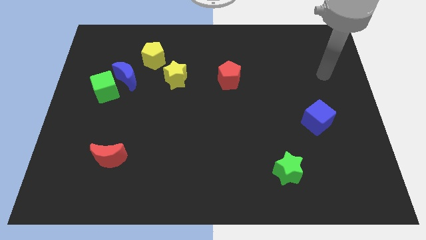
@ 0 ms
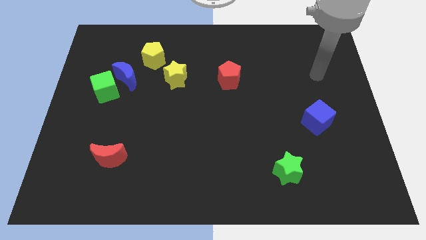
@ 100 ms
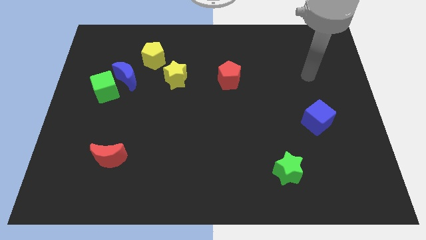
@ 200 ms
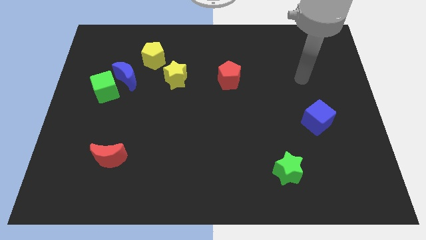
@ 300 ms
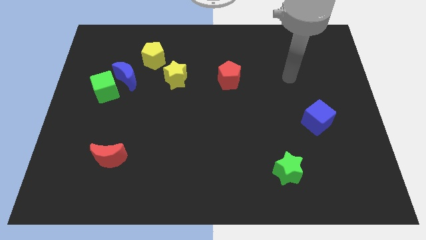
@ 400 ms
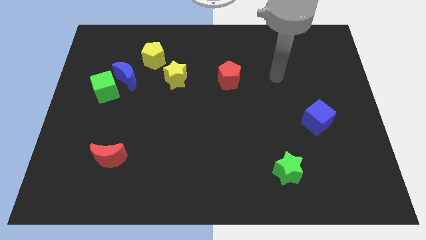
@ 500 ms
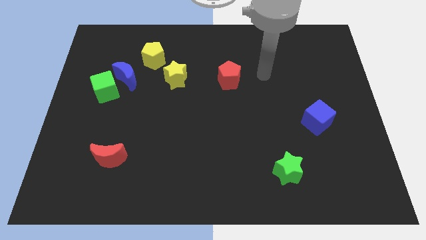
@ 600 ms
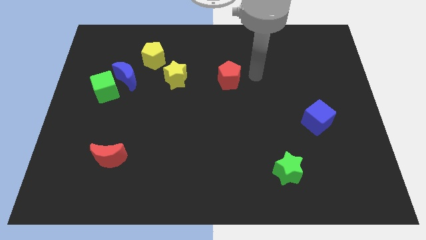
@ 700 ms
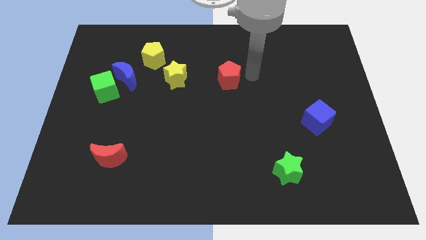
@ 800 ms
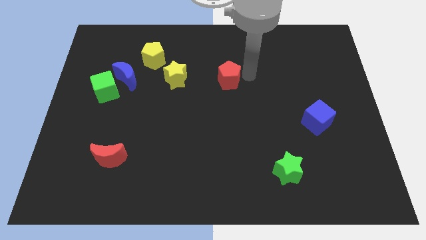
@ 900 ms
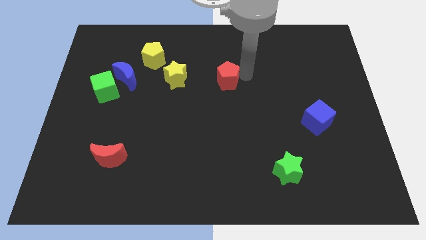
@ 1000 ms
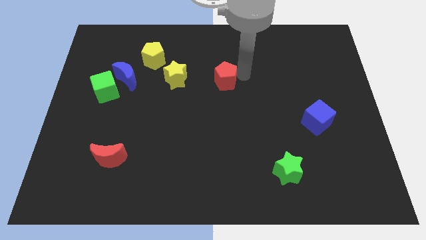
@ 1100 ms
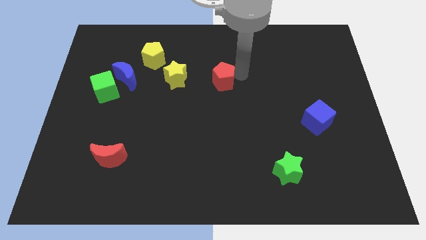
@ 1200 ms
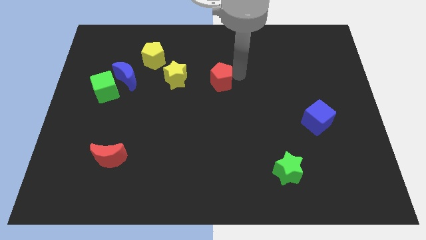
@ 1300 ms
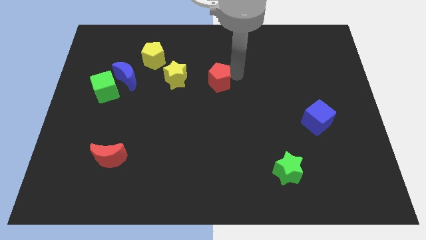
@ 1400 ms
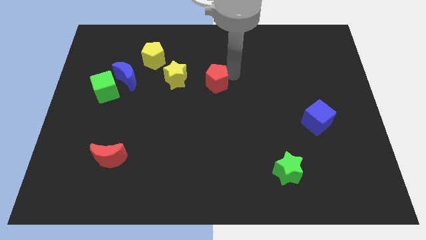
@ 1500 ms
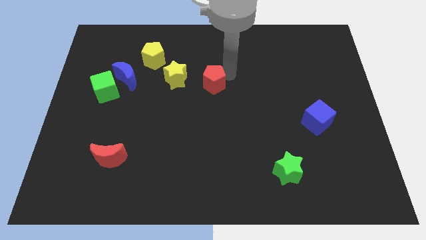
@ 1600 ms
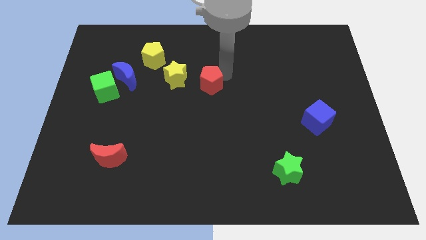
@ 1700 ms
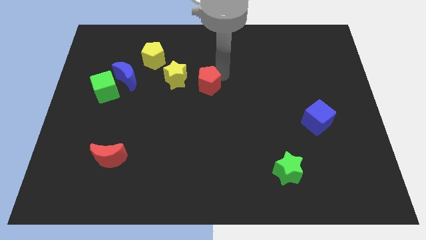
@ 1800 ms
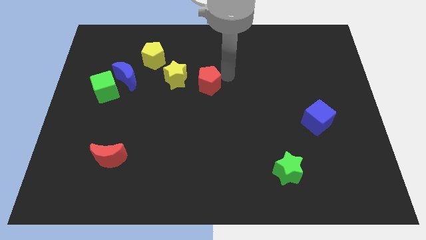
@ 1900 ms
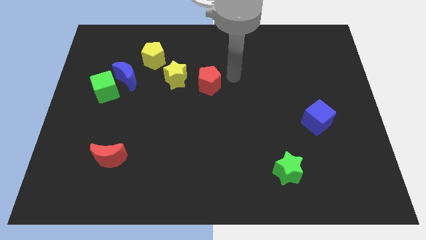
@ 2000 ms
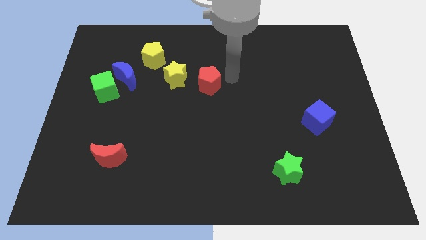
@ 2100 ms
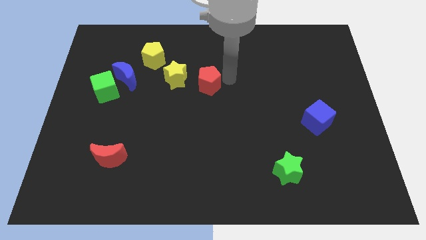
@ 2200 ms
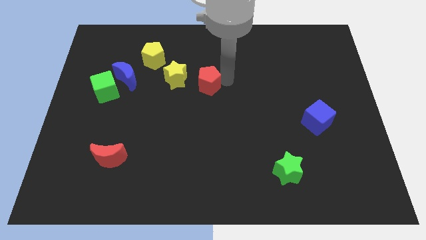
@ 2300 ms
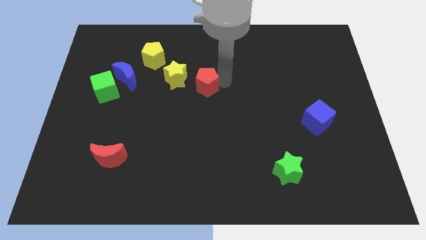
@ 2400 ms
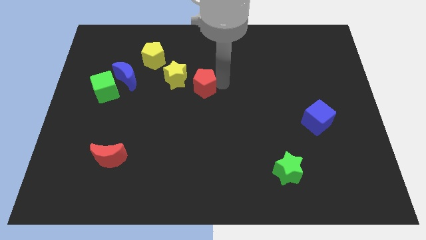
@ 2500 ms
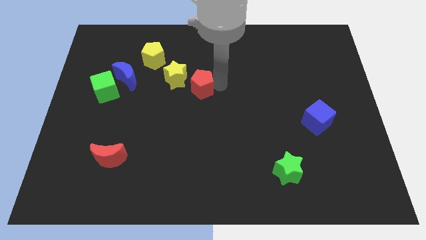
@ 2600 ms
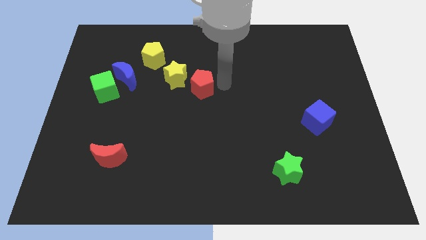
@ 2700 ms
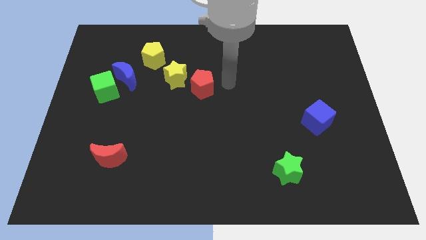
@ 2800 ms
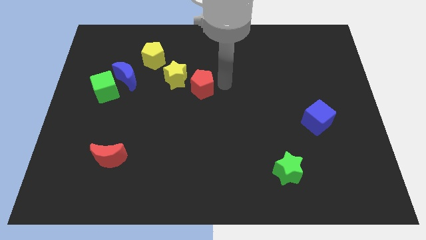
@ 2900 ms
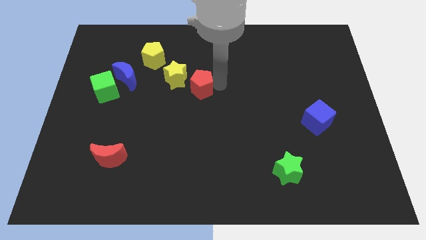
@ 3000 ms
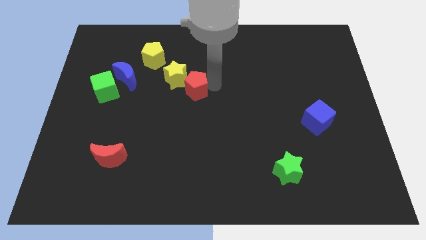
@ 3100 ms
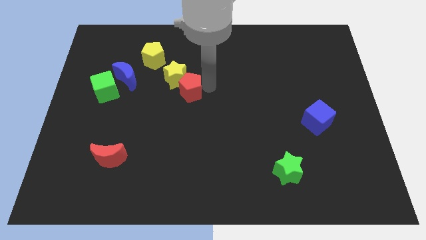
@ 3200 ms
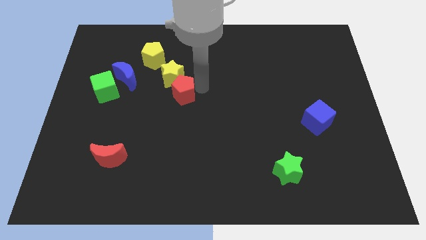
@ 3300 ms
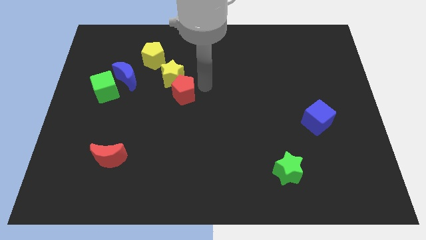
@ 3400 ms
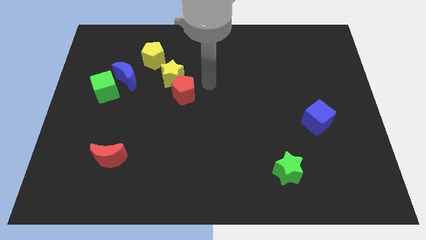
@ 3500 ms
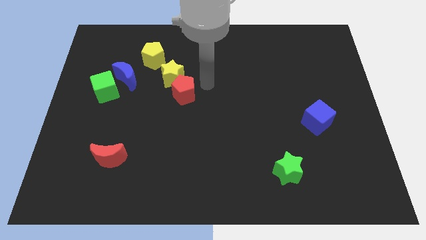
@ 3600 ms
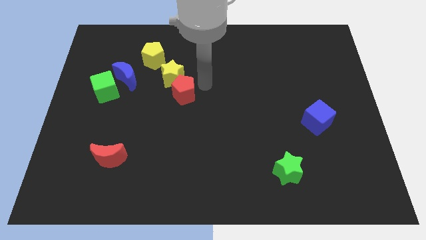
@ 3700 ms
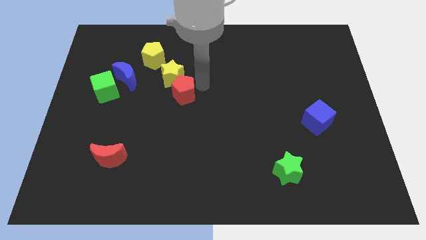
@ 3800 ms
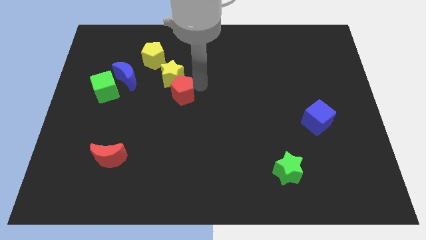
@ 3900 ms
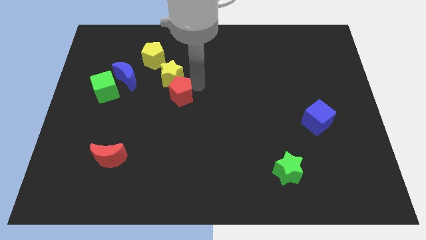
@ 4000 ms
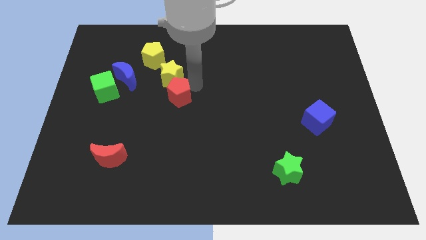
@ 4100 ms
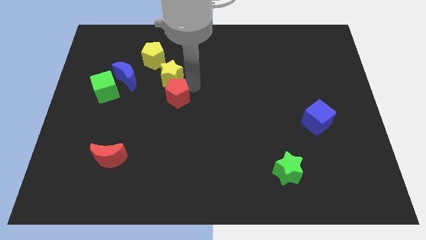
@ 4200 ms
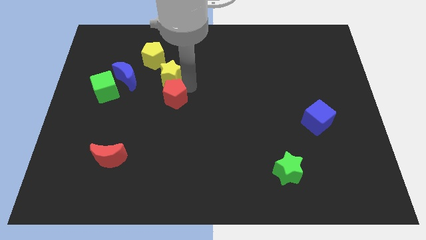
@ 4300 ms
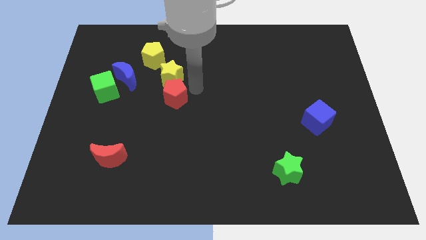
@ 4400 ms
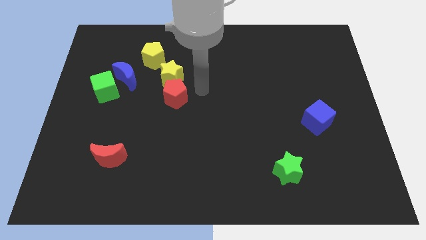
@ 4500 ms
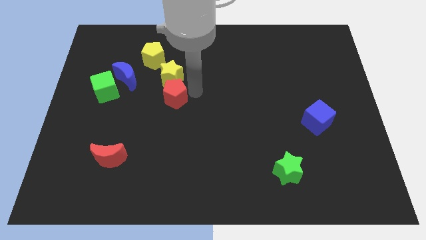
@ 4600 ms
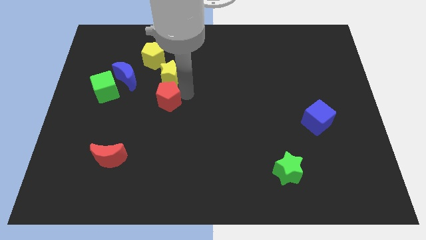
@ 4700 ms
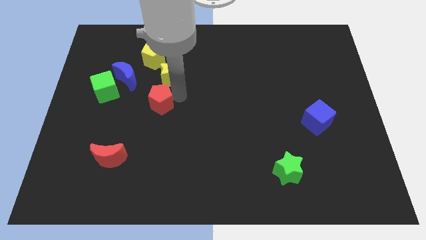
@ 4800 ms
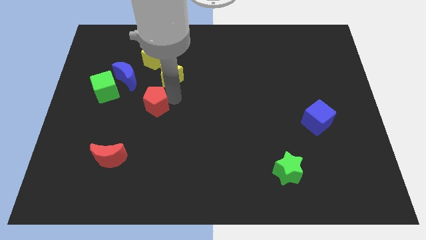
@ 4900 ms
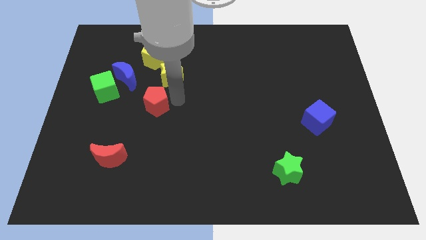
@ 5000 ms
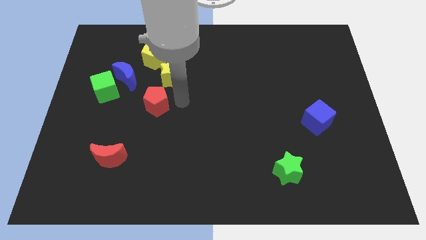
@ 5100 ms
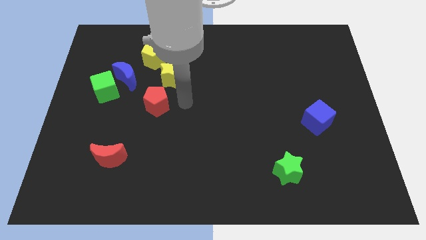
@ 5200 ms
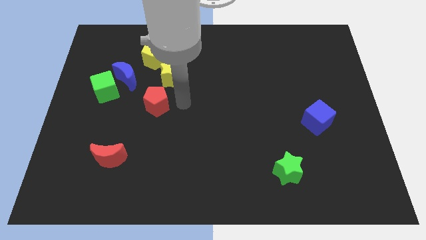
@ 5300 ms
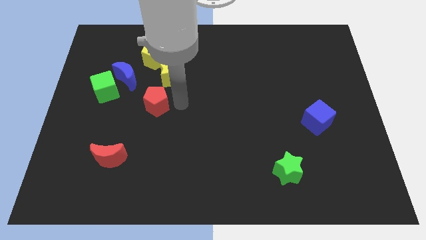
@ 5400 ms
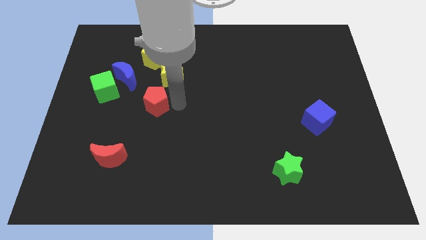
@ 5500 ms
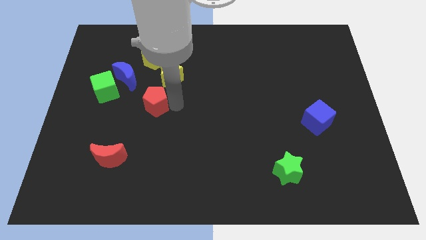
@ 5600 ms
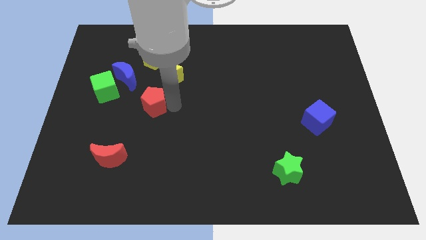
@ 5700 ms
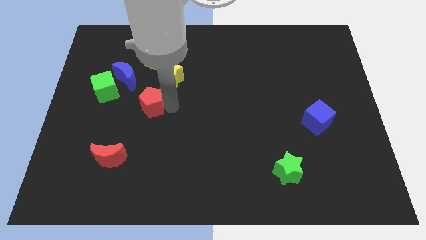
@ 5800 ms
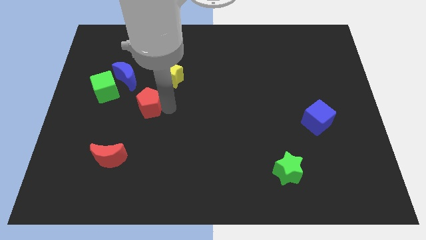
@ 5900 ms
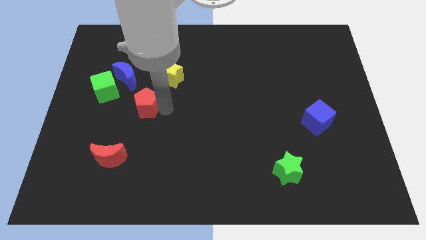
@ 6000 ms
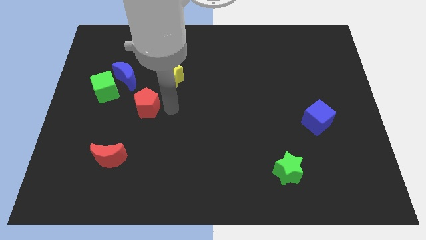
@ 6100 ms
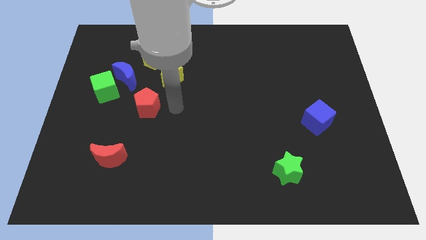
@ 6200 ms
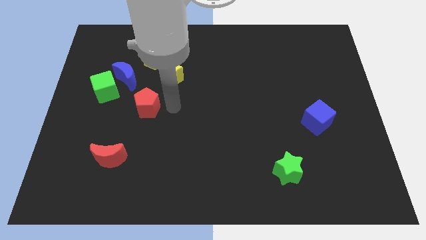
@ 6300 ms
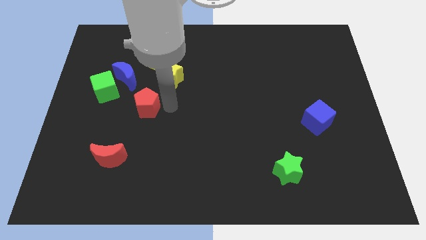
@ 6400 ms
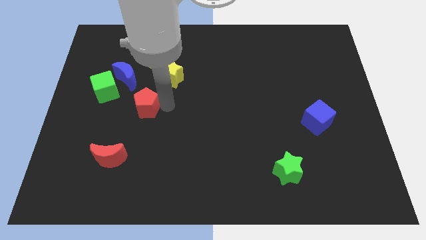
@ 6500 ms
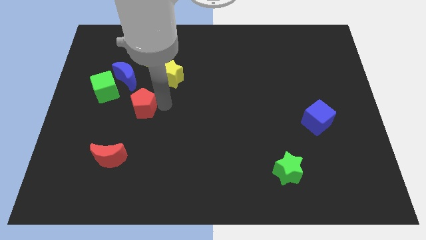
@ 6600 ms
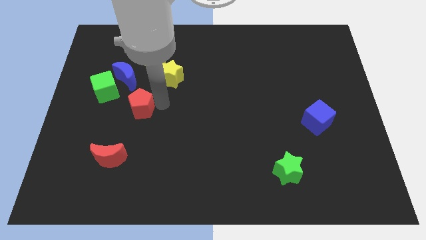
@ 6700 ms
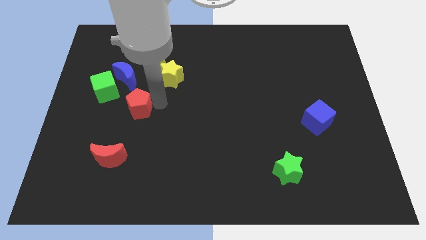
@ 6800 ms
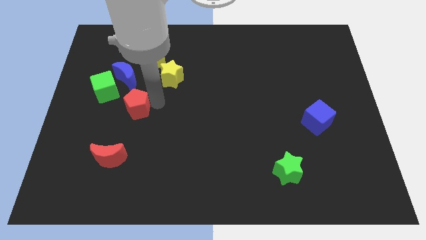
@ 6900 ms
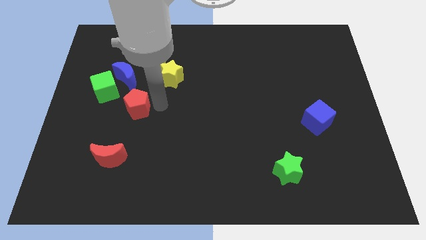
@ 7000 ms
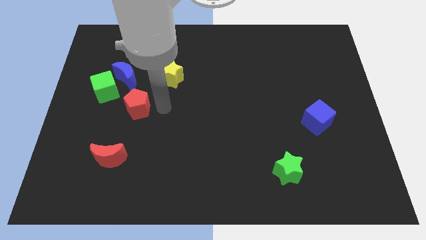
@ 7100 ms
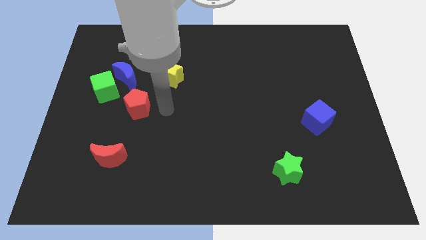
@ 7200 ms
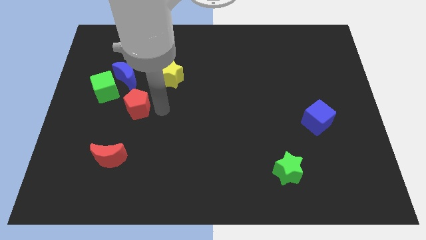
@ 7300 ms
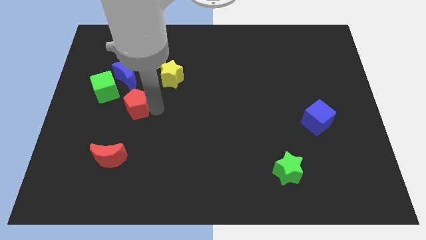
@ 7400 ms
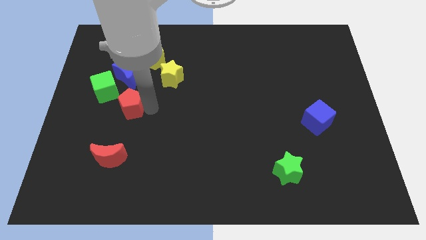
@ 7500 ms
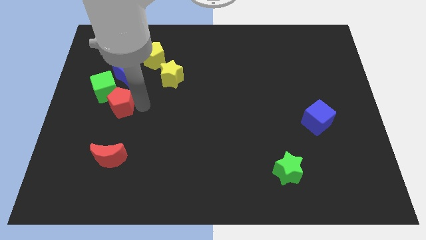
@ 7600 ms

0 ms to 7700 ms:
put the red pentagon to the bottom side of the green cube
